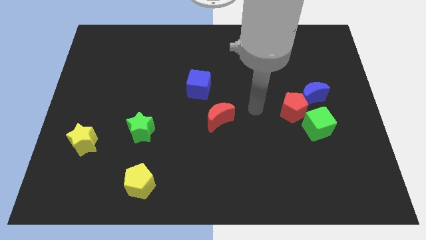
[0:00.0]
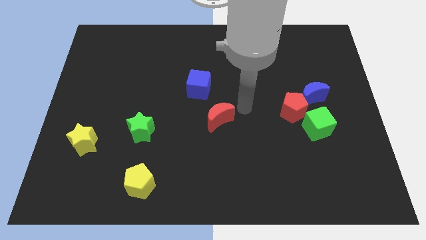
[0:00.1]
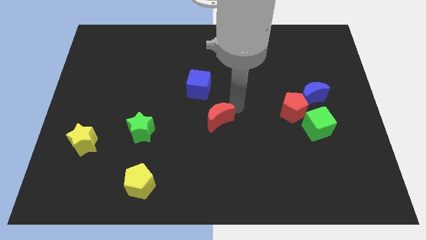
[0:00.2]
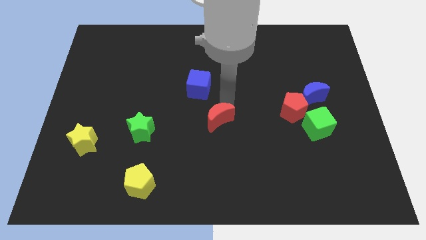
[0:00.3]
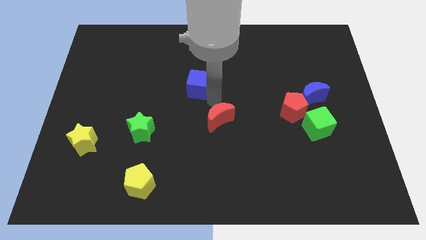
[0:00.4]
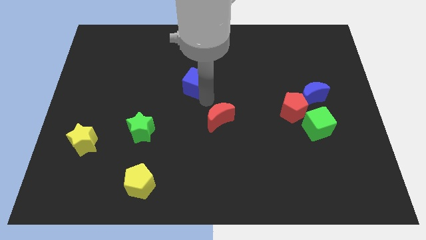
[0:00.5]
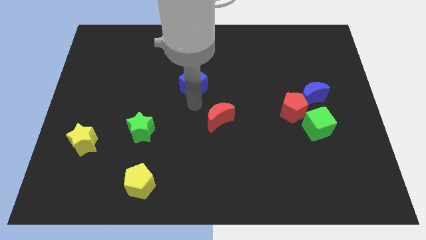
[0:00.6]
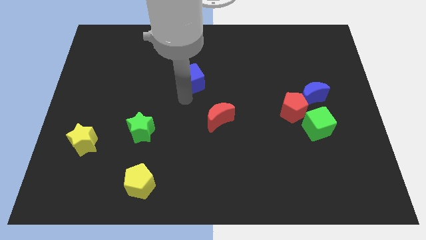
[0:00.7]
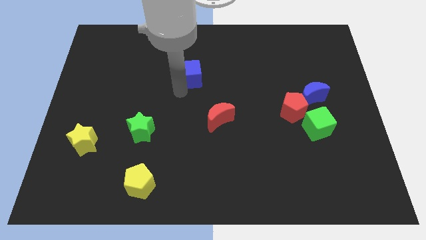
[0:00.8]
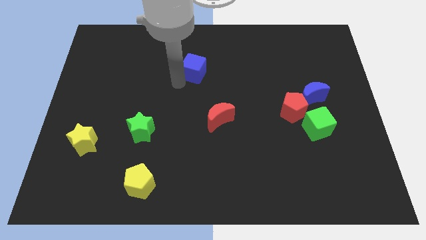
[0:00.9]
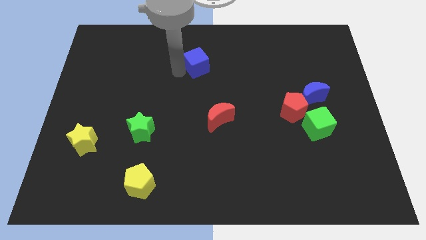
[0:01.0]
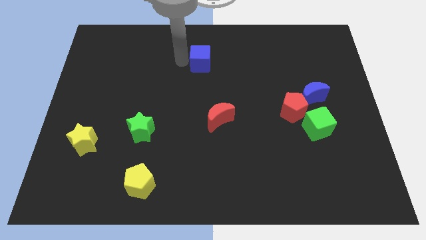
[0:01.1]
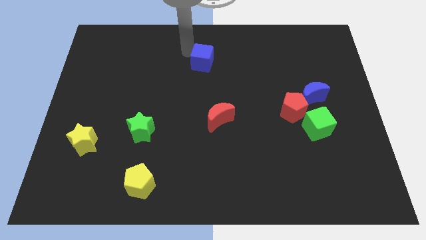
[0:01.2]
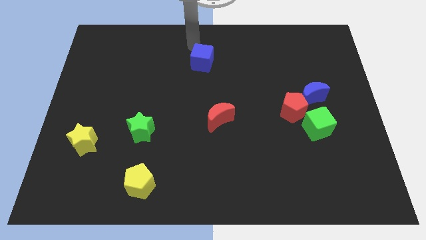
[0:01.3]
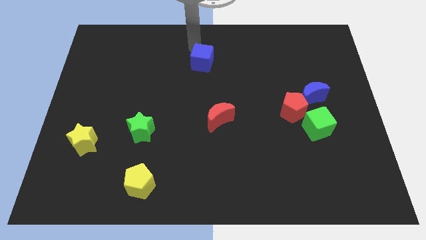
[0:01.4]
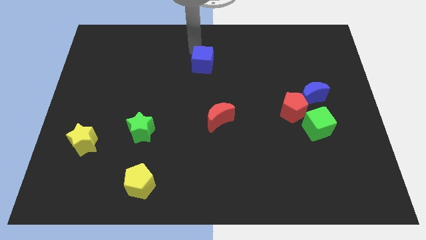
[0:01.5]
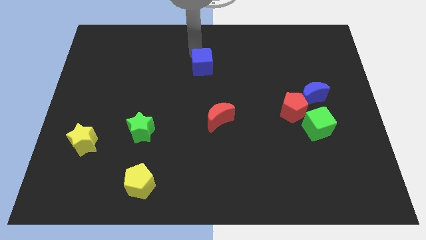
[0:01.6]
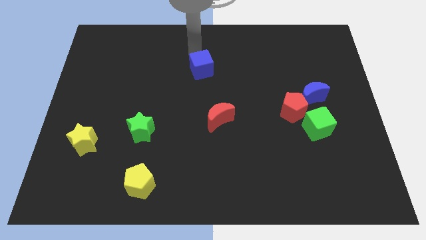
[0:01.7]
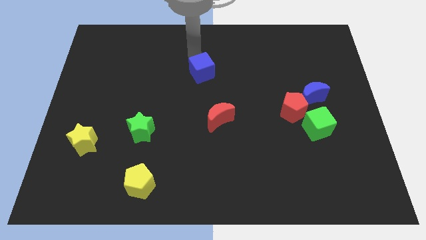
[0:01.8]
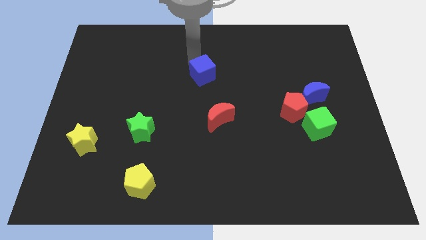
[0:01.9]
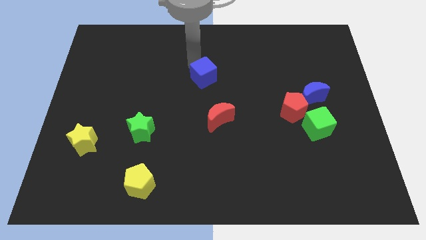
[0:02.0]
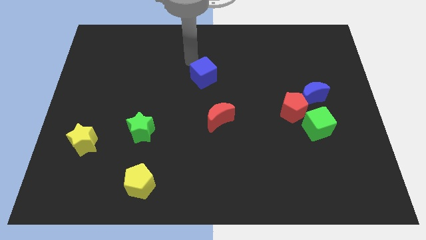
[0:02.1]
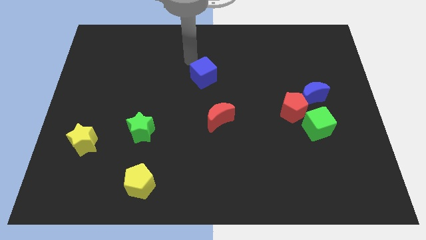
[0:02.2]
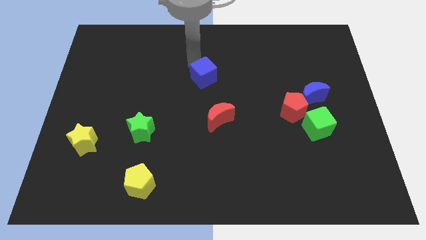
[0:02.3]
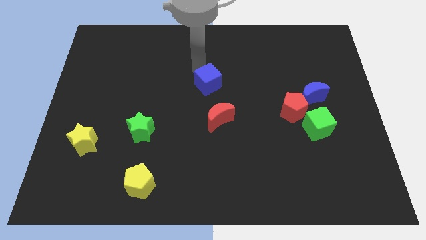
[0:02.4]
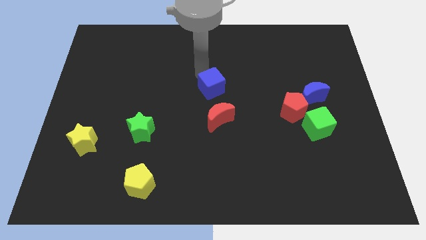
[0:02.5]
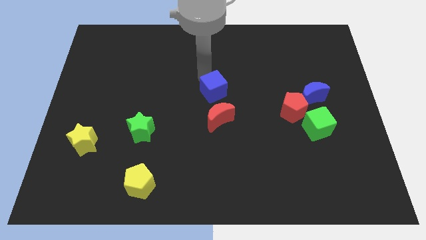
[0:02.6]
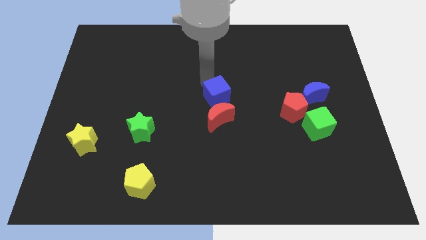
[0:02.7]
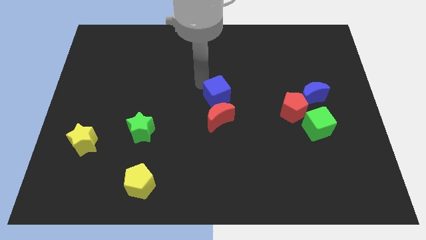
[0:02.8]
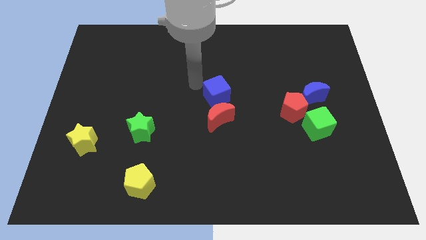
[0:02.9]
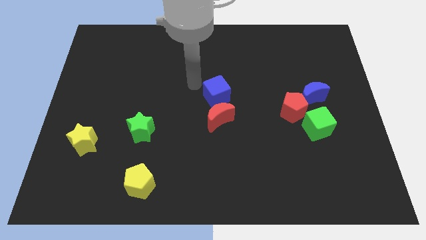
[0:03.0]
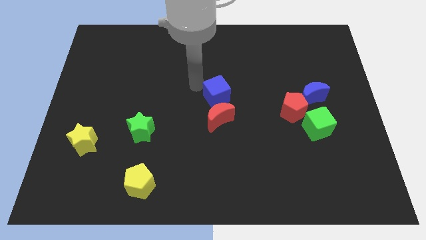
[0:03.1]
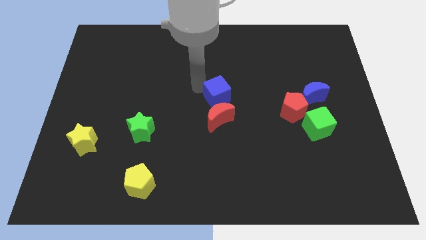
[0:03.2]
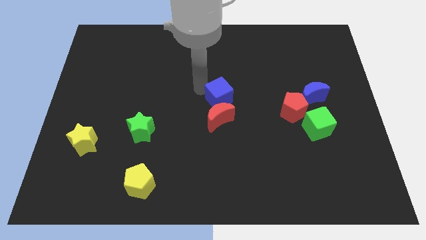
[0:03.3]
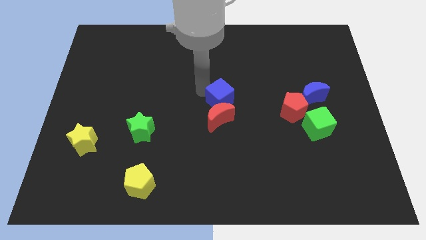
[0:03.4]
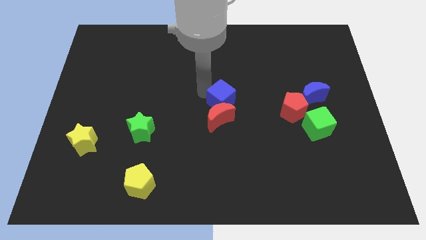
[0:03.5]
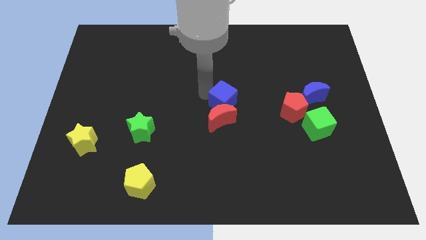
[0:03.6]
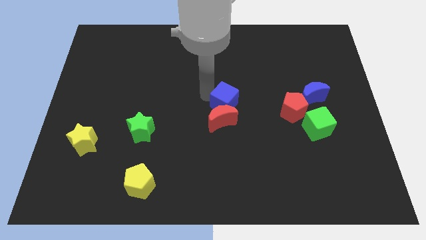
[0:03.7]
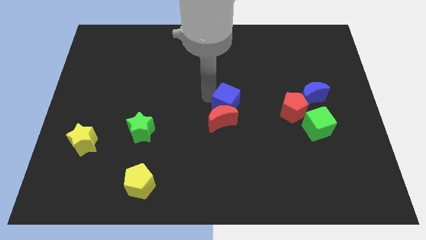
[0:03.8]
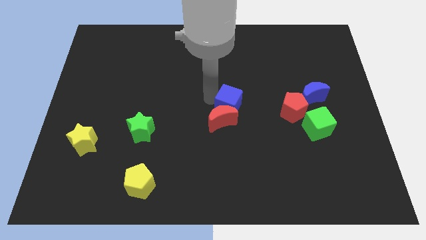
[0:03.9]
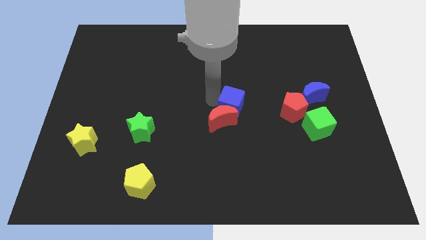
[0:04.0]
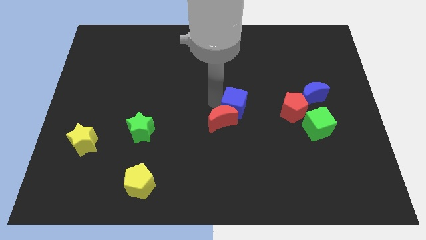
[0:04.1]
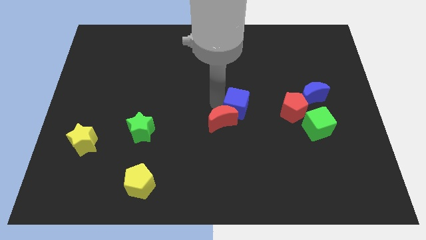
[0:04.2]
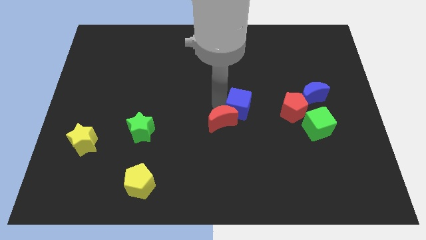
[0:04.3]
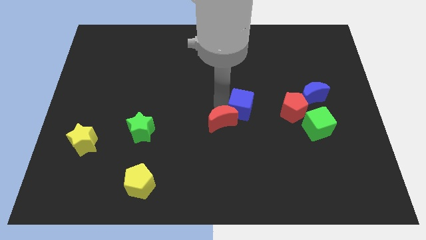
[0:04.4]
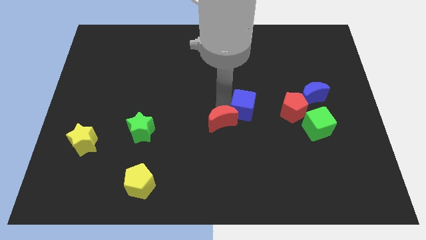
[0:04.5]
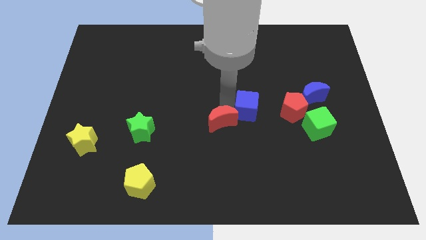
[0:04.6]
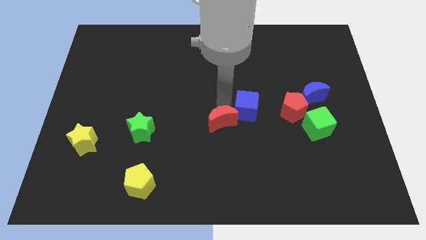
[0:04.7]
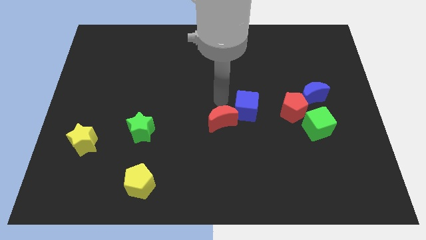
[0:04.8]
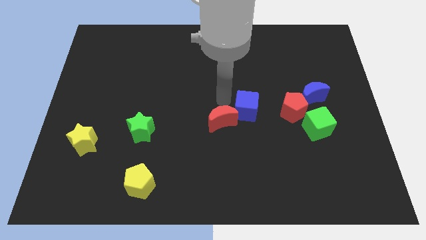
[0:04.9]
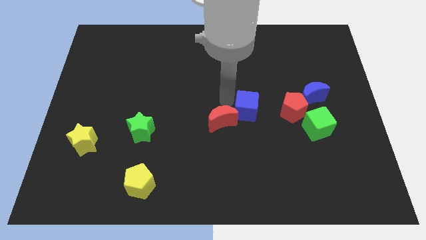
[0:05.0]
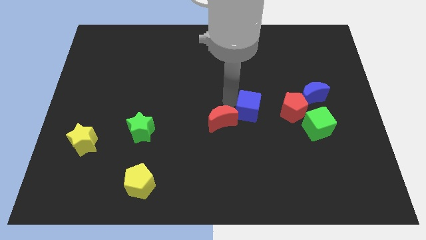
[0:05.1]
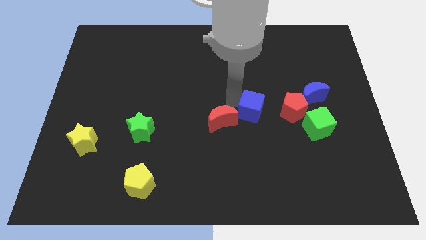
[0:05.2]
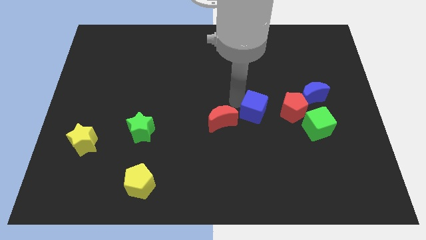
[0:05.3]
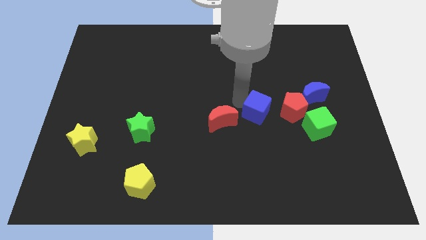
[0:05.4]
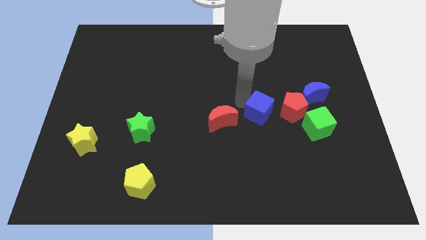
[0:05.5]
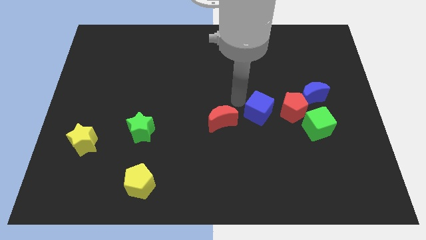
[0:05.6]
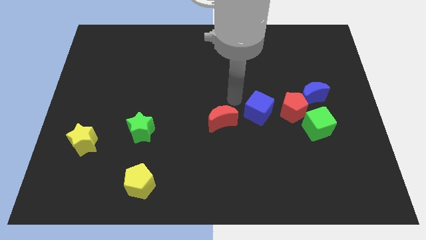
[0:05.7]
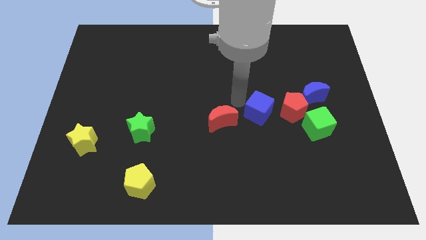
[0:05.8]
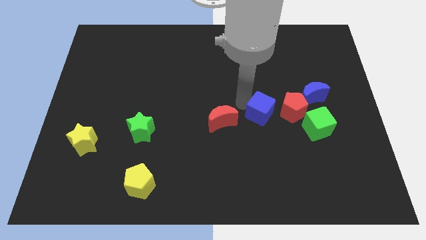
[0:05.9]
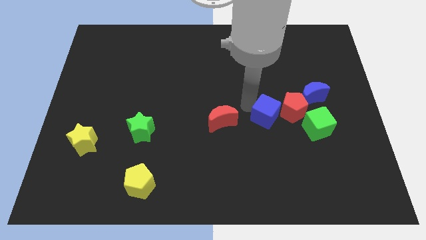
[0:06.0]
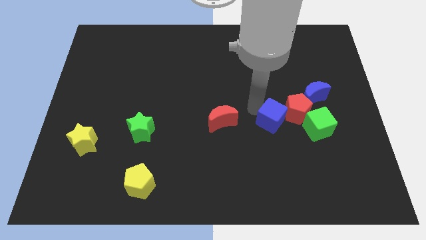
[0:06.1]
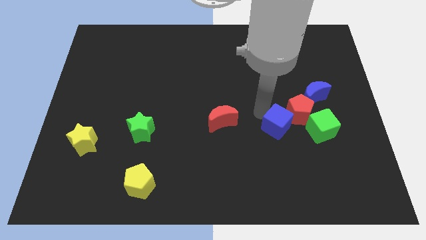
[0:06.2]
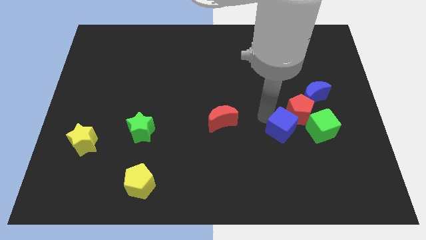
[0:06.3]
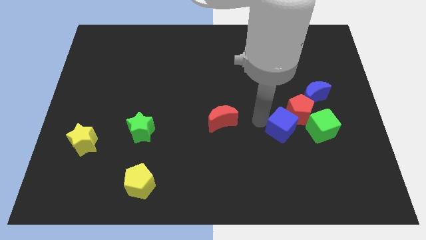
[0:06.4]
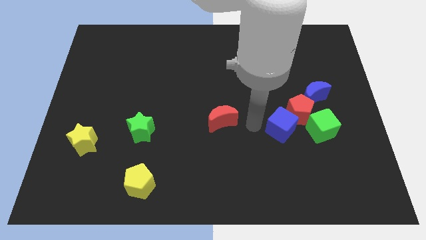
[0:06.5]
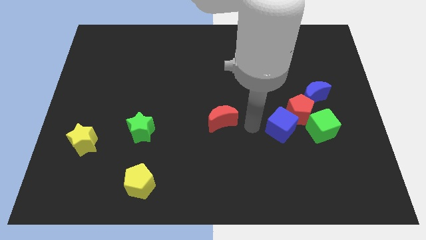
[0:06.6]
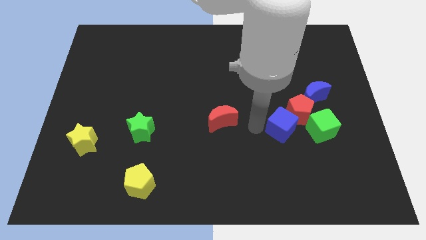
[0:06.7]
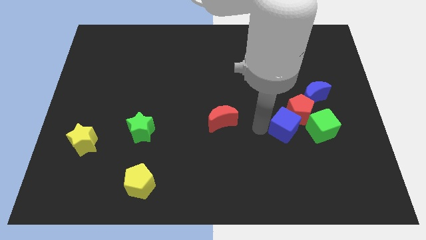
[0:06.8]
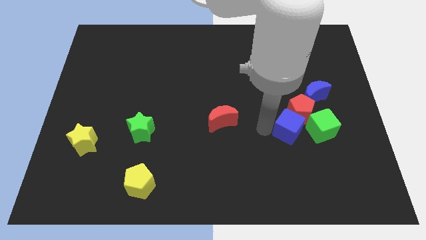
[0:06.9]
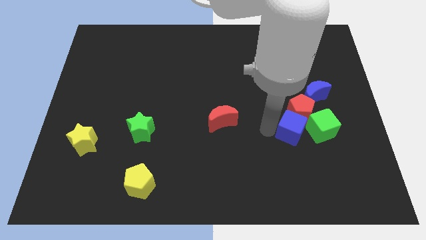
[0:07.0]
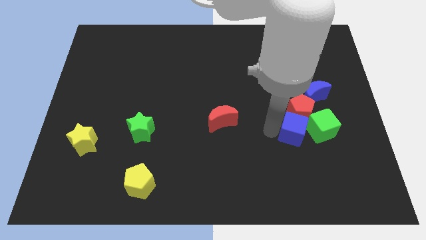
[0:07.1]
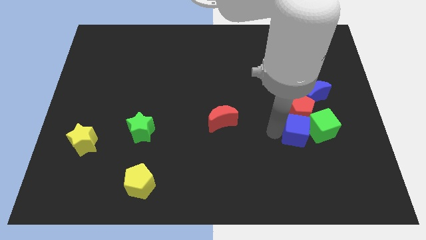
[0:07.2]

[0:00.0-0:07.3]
put the blue cube to the green cube
